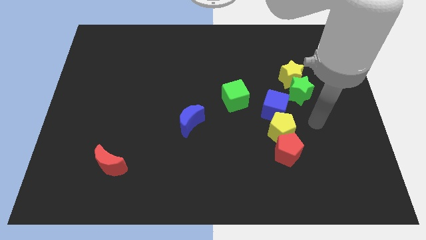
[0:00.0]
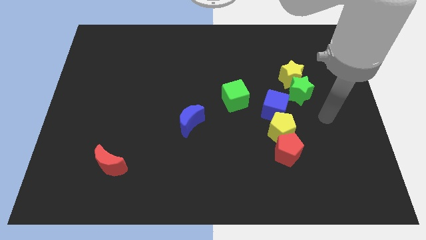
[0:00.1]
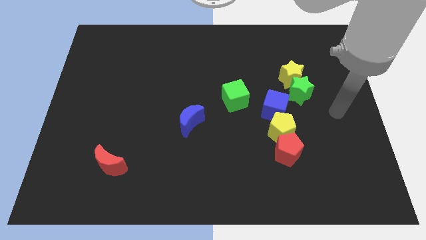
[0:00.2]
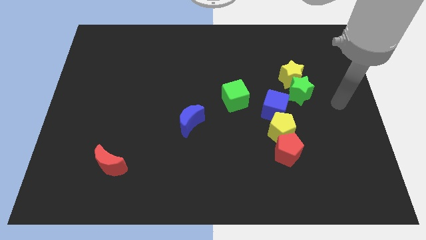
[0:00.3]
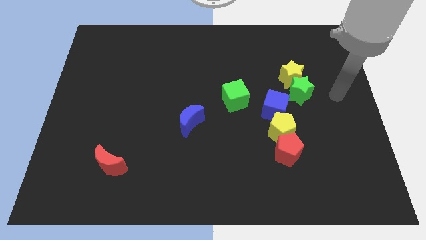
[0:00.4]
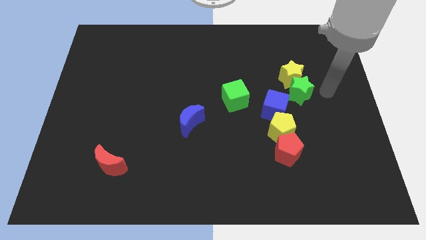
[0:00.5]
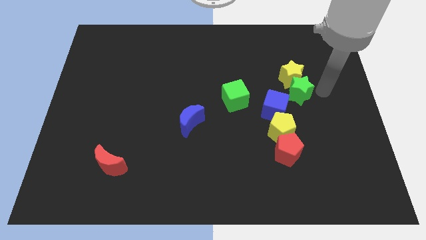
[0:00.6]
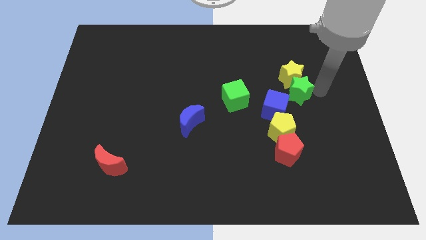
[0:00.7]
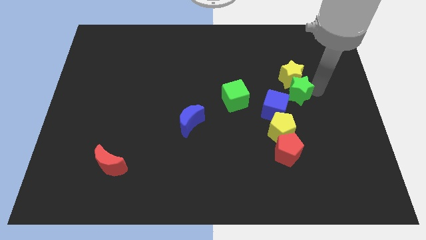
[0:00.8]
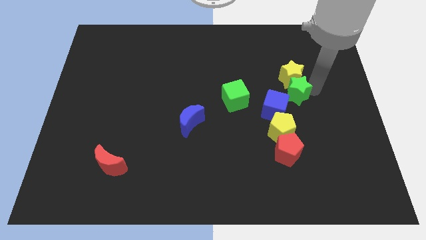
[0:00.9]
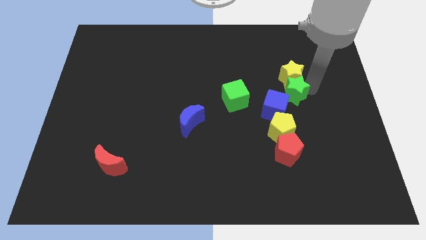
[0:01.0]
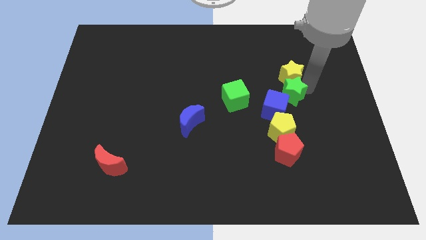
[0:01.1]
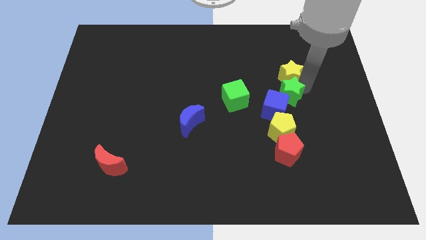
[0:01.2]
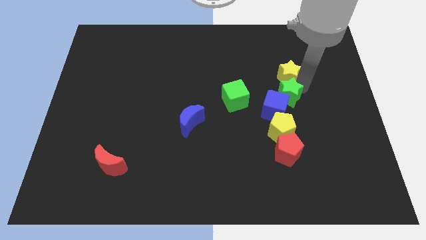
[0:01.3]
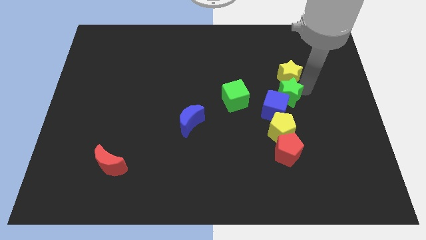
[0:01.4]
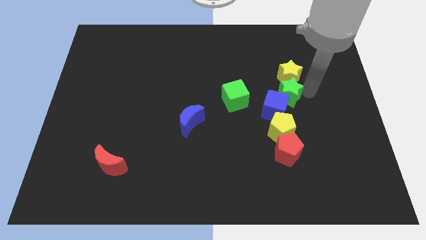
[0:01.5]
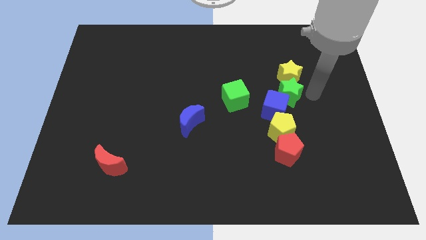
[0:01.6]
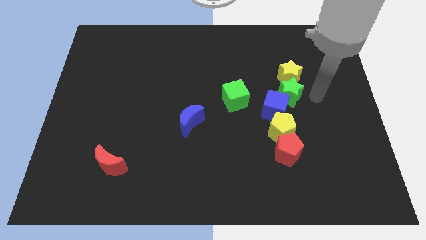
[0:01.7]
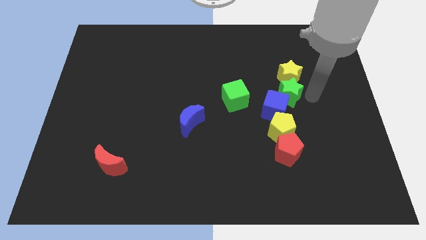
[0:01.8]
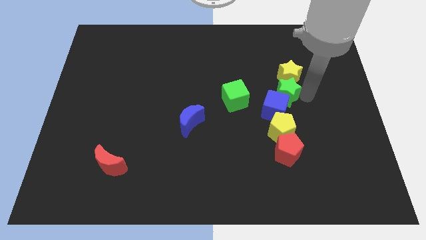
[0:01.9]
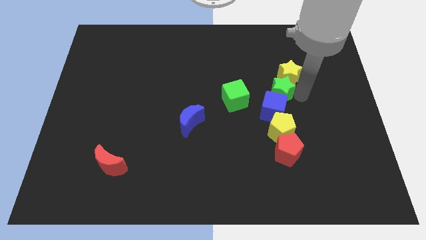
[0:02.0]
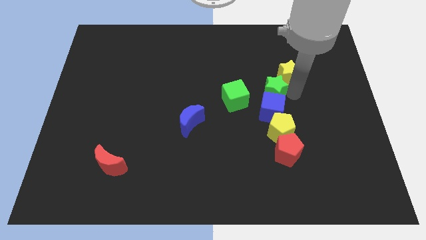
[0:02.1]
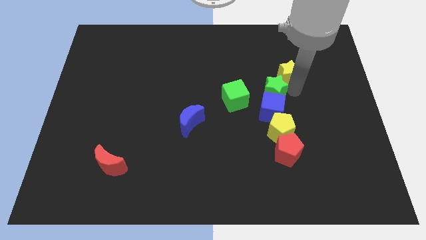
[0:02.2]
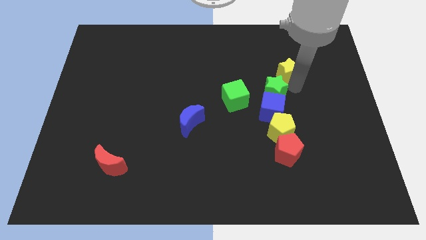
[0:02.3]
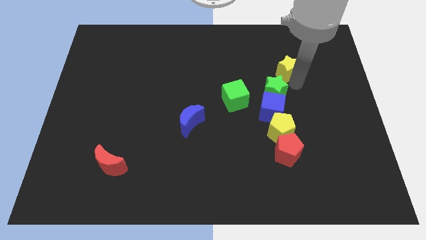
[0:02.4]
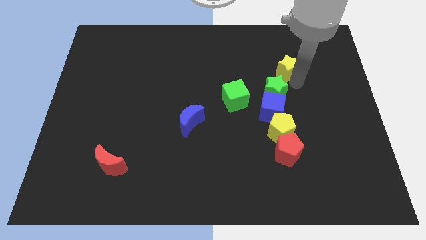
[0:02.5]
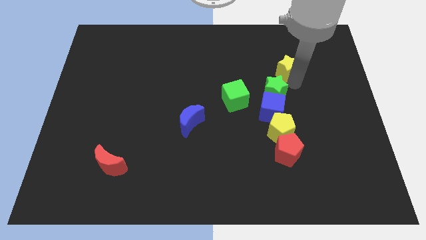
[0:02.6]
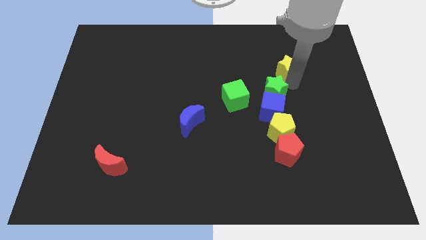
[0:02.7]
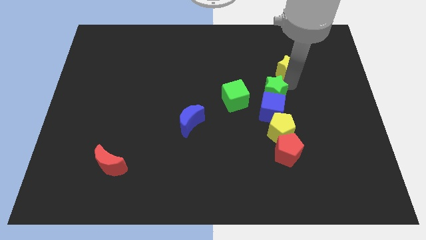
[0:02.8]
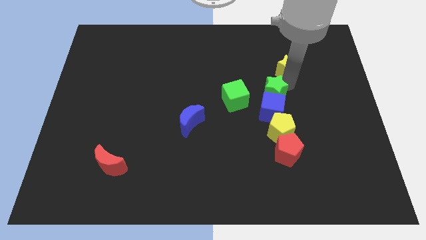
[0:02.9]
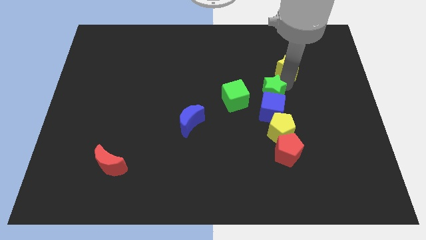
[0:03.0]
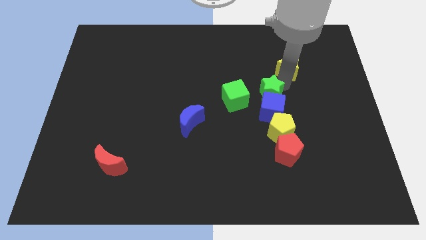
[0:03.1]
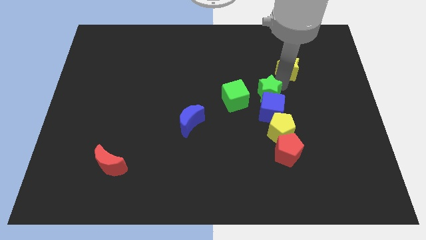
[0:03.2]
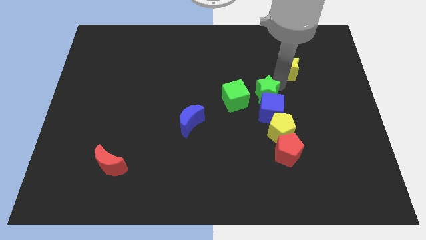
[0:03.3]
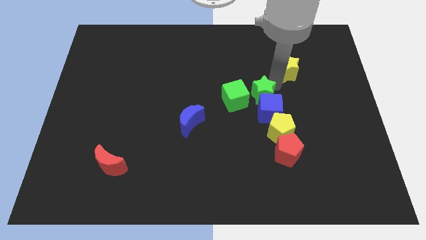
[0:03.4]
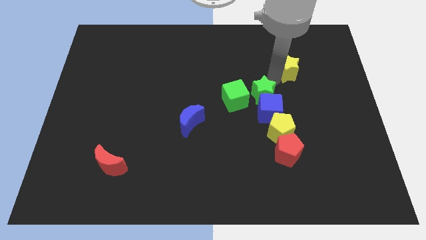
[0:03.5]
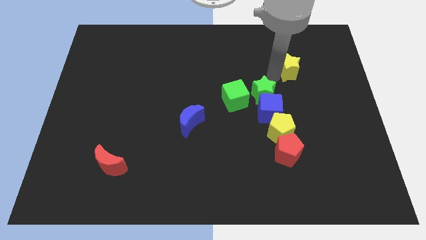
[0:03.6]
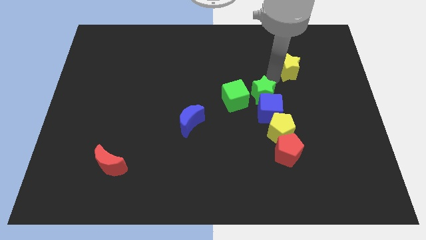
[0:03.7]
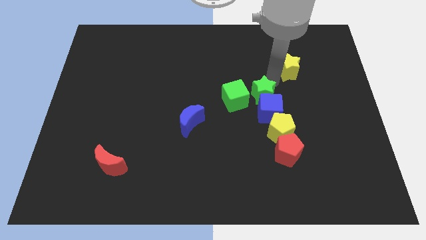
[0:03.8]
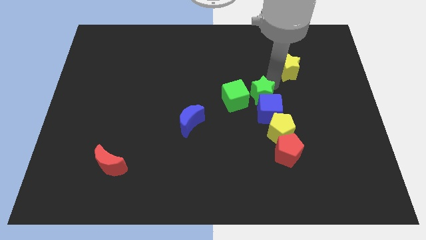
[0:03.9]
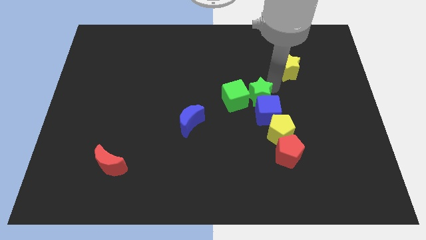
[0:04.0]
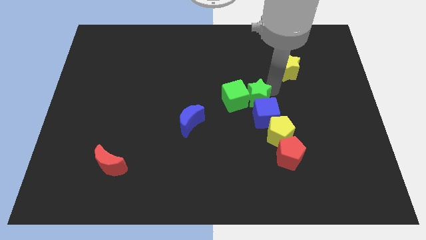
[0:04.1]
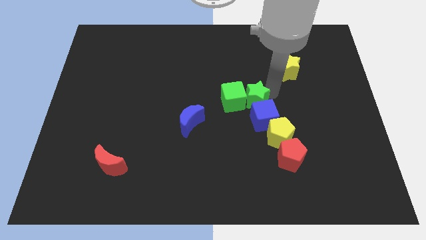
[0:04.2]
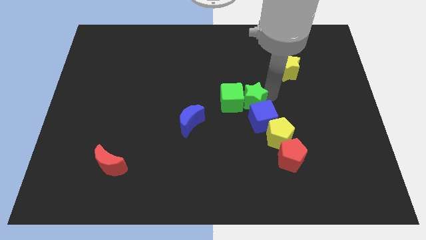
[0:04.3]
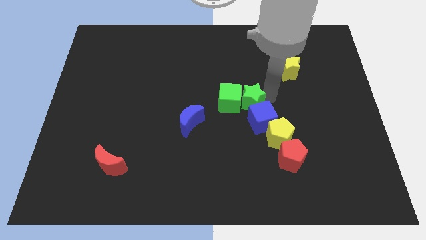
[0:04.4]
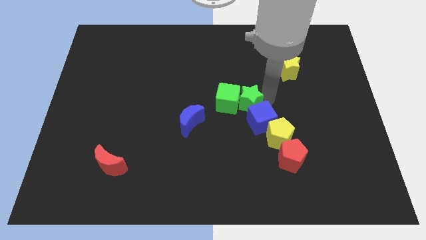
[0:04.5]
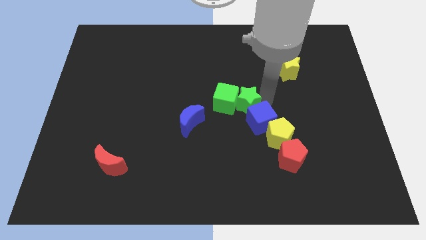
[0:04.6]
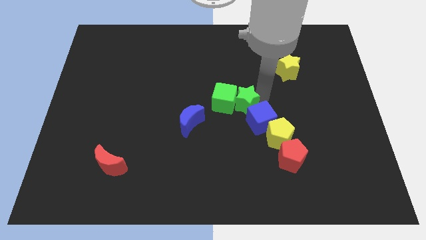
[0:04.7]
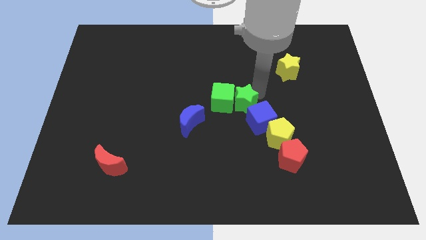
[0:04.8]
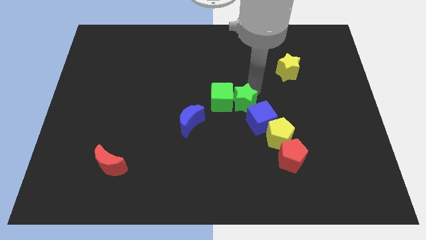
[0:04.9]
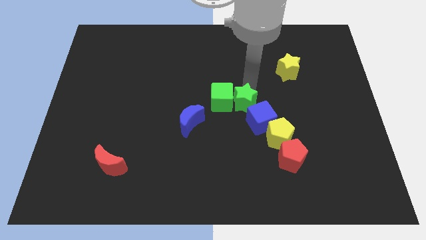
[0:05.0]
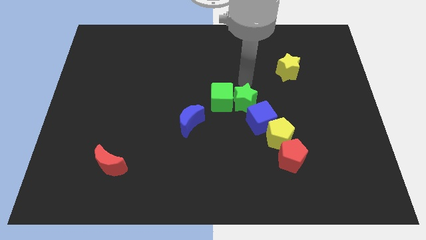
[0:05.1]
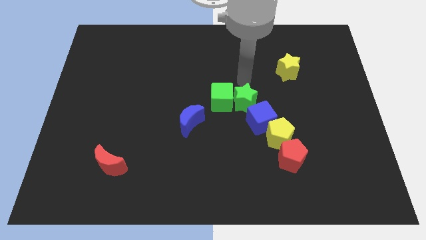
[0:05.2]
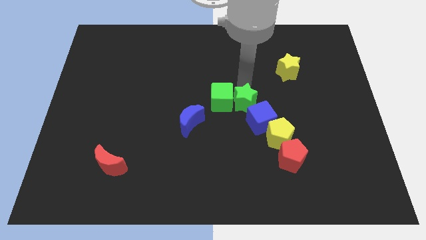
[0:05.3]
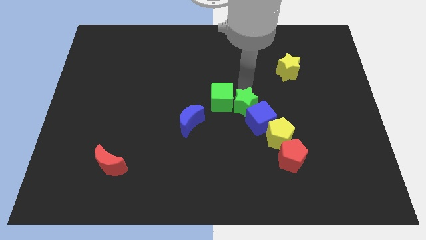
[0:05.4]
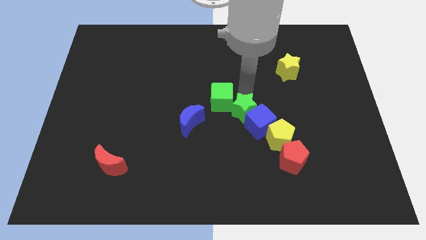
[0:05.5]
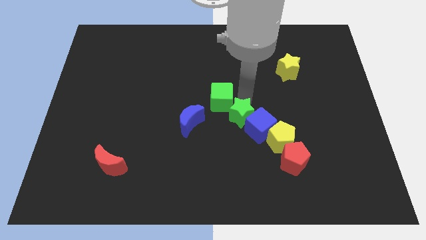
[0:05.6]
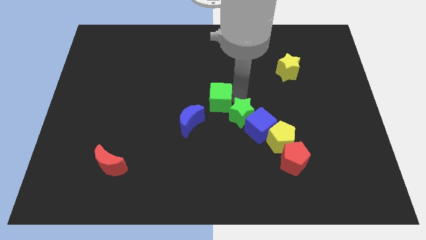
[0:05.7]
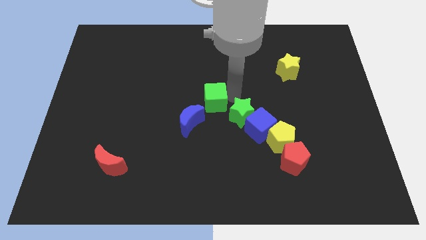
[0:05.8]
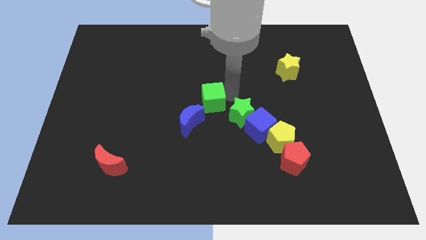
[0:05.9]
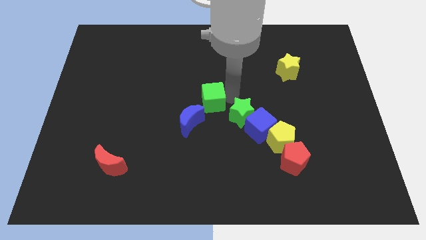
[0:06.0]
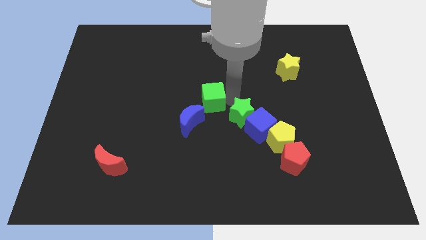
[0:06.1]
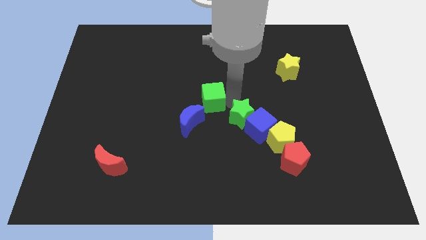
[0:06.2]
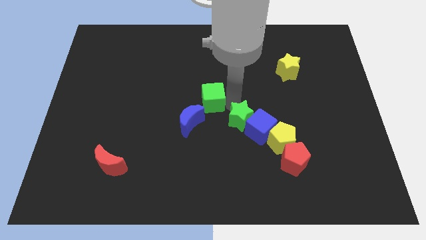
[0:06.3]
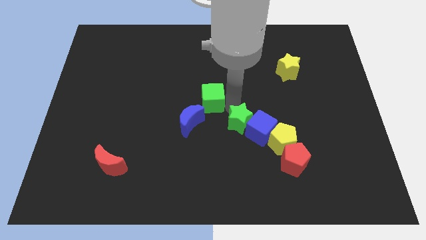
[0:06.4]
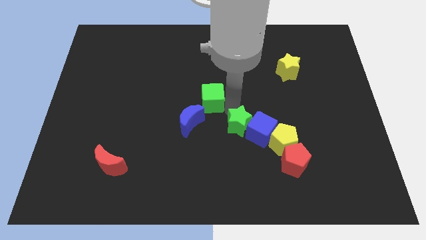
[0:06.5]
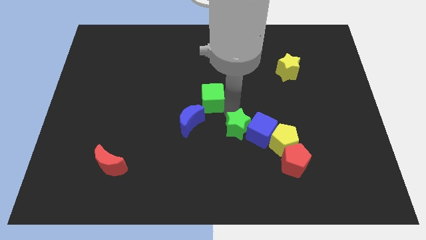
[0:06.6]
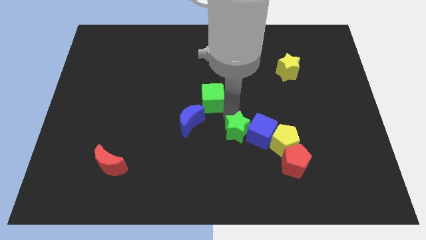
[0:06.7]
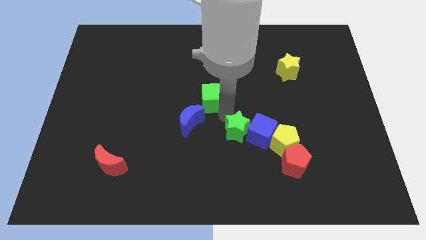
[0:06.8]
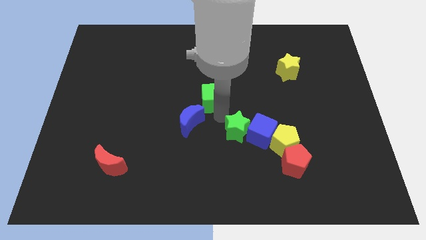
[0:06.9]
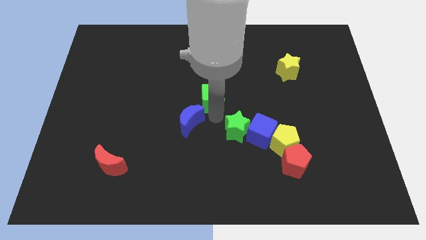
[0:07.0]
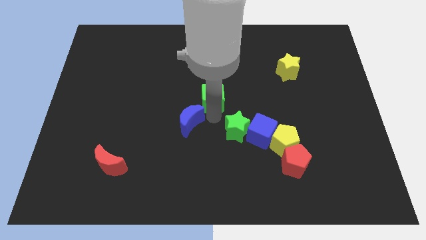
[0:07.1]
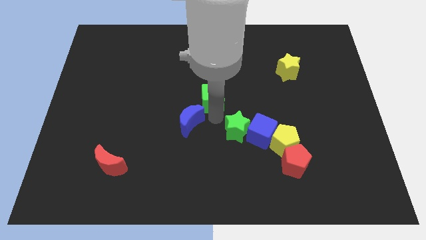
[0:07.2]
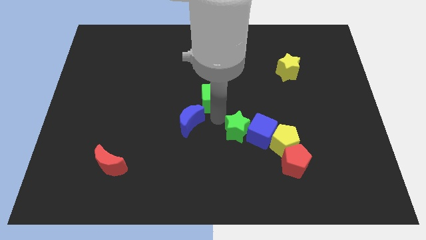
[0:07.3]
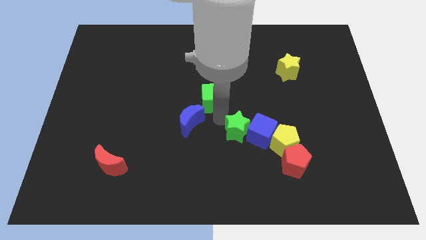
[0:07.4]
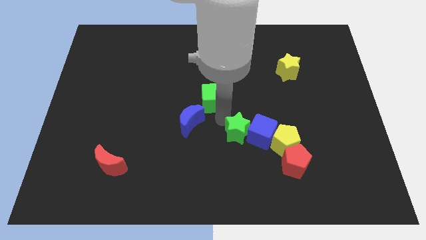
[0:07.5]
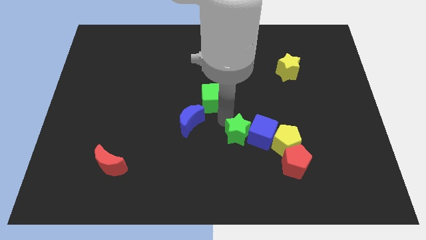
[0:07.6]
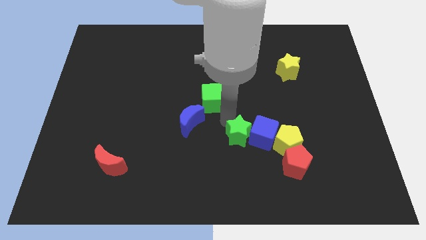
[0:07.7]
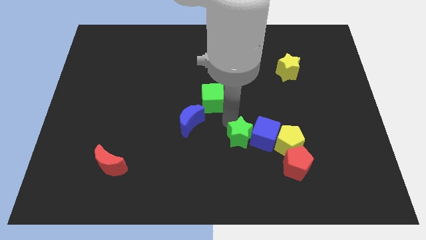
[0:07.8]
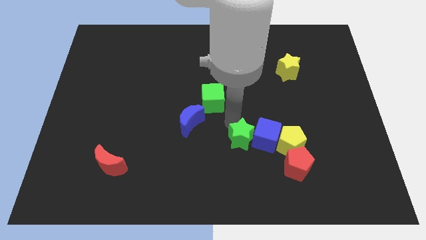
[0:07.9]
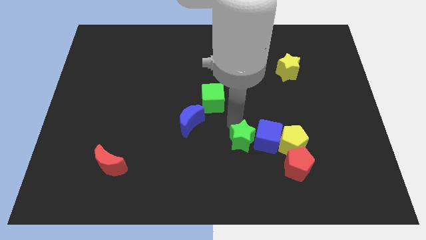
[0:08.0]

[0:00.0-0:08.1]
slide the green star diagonally down and left
